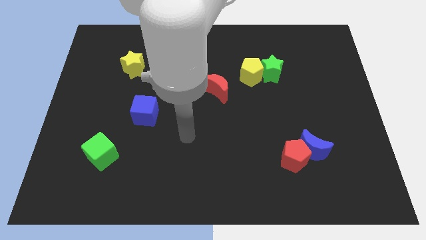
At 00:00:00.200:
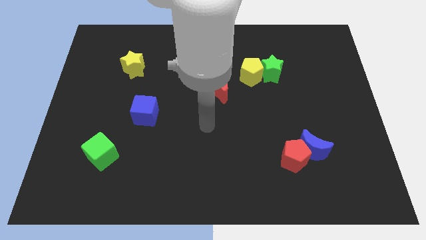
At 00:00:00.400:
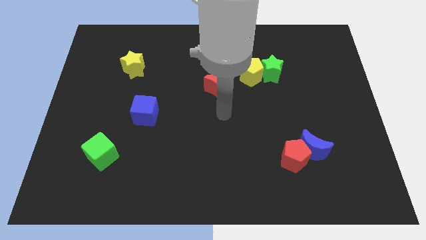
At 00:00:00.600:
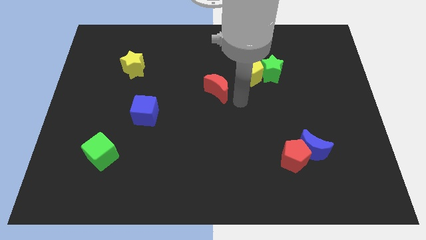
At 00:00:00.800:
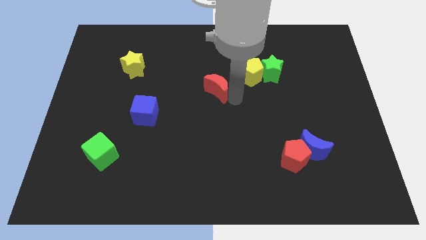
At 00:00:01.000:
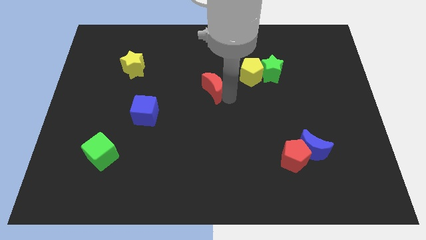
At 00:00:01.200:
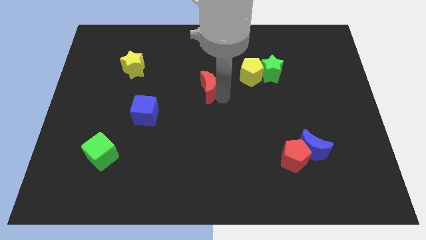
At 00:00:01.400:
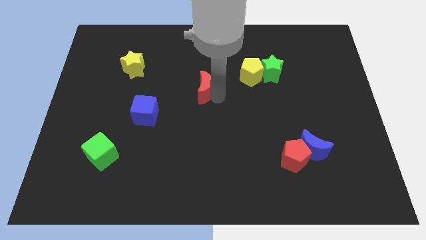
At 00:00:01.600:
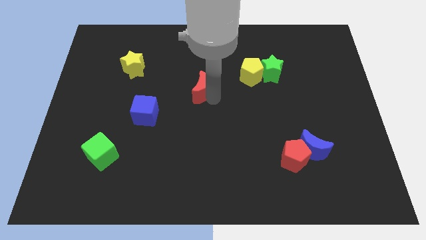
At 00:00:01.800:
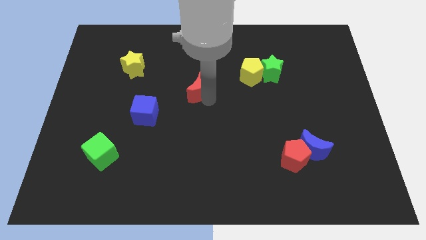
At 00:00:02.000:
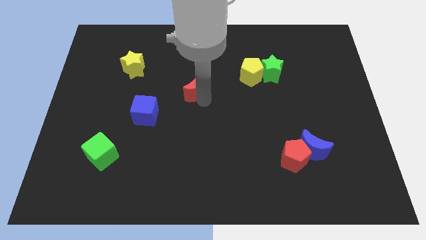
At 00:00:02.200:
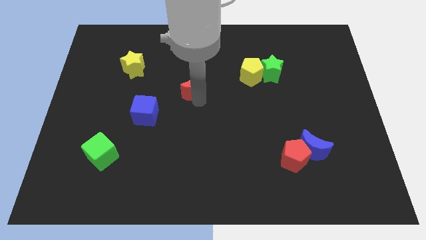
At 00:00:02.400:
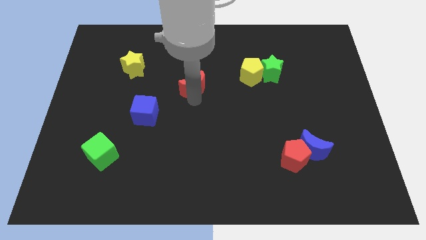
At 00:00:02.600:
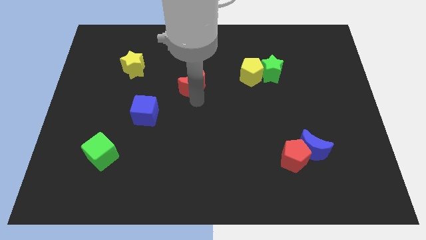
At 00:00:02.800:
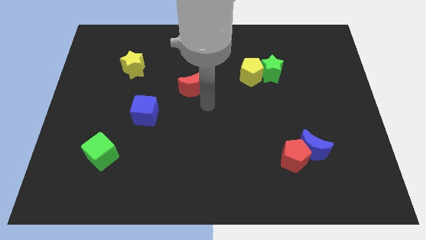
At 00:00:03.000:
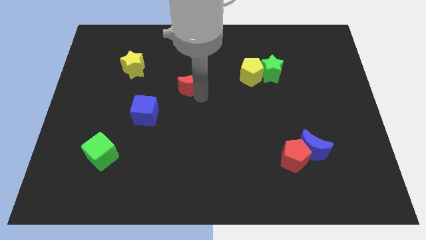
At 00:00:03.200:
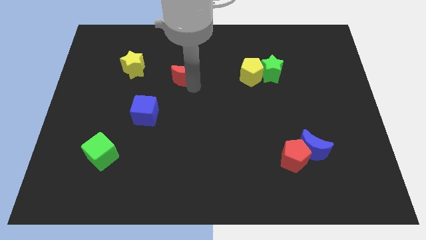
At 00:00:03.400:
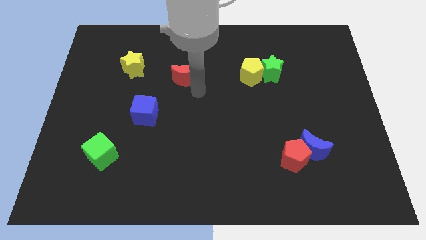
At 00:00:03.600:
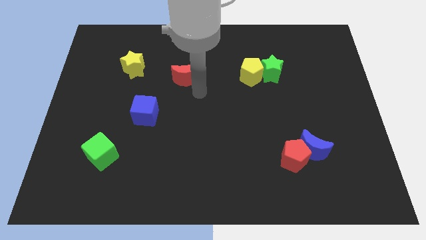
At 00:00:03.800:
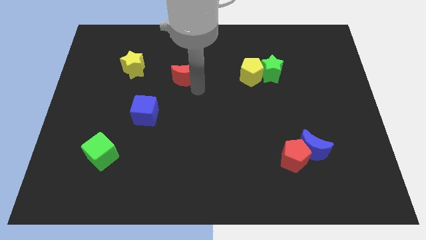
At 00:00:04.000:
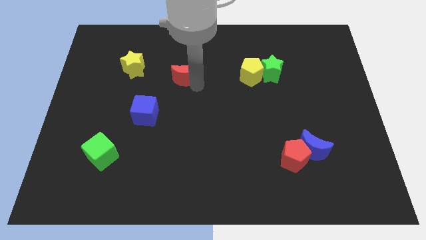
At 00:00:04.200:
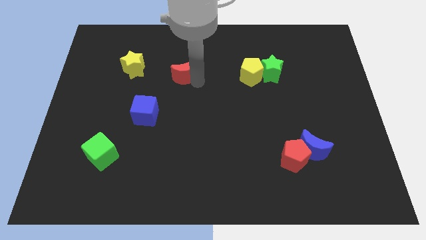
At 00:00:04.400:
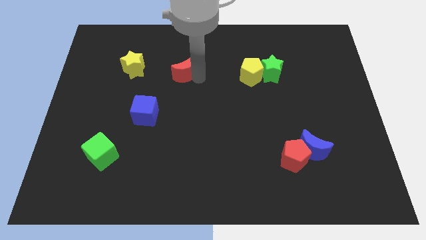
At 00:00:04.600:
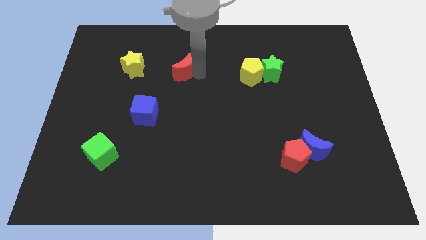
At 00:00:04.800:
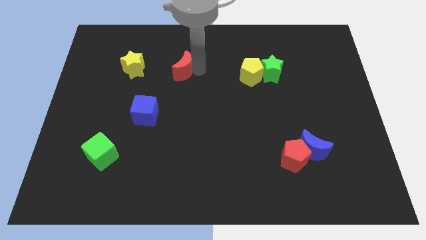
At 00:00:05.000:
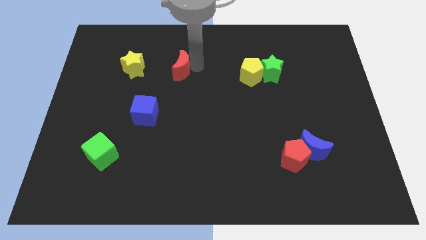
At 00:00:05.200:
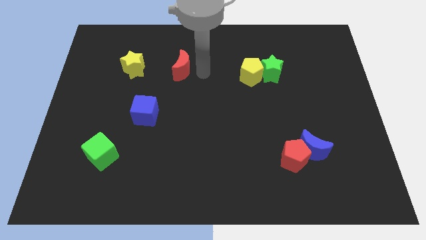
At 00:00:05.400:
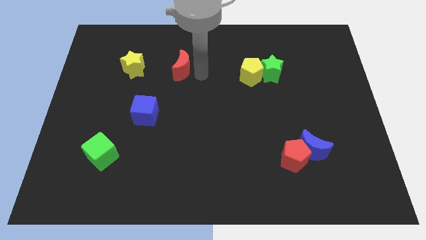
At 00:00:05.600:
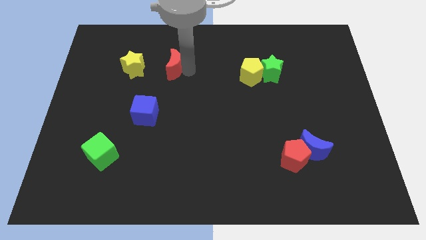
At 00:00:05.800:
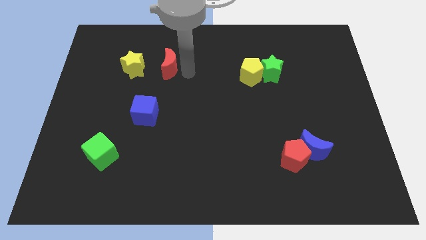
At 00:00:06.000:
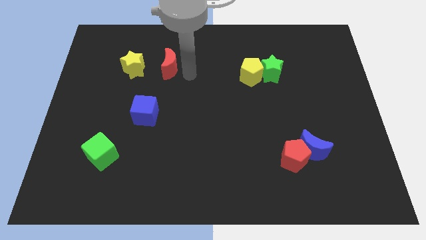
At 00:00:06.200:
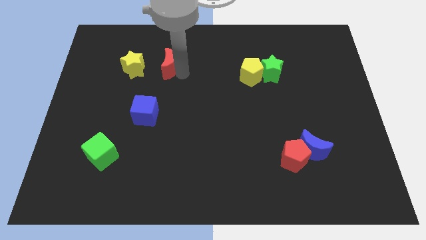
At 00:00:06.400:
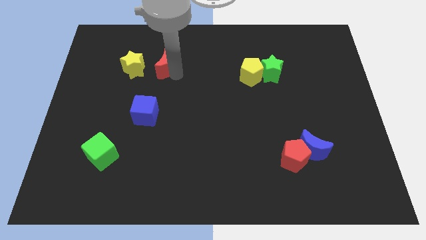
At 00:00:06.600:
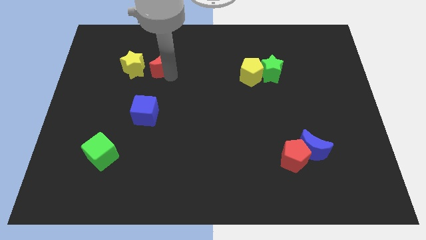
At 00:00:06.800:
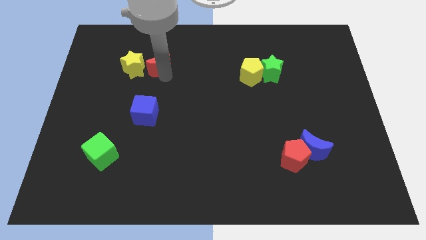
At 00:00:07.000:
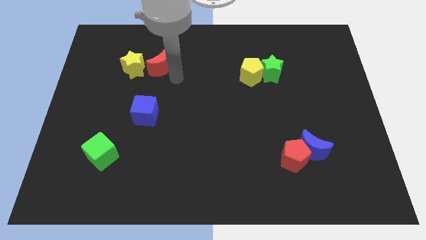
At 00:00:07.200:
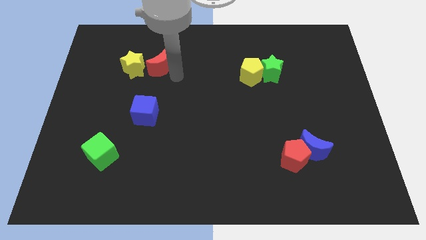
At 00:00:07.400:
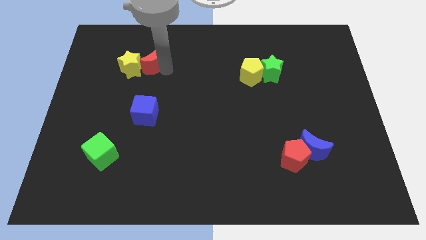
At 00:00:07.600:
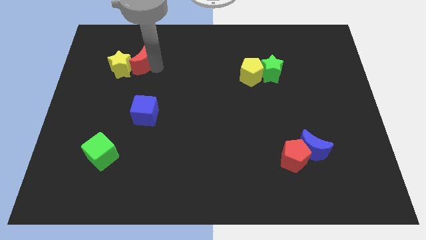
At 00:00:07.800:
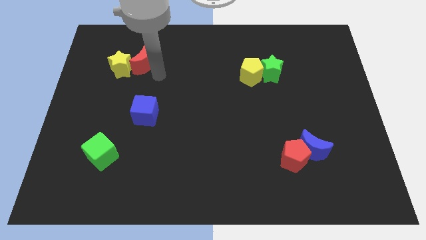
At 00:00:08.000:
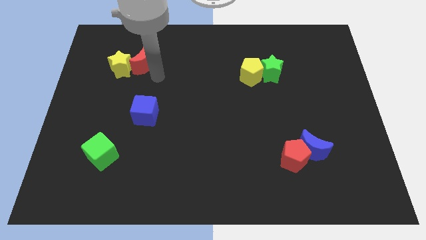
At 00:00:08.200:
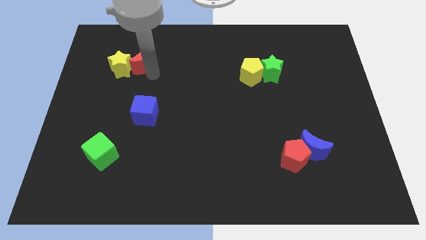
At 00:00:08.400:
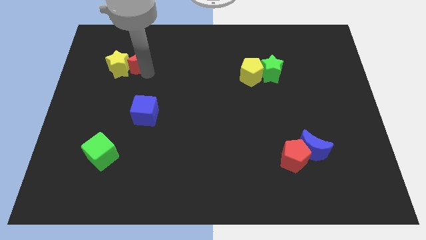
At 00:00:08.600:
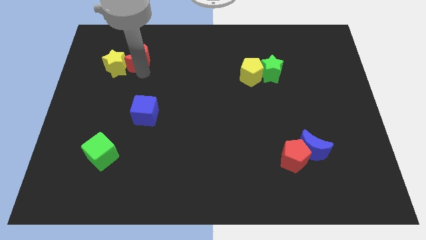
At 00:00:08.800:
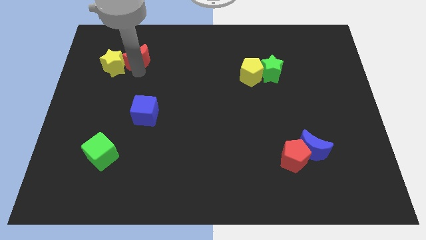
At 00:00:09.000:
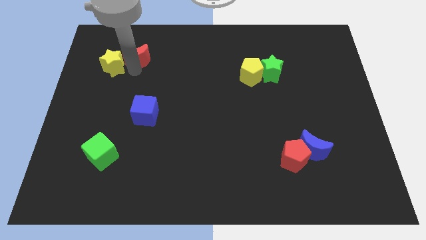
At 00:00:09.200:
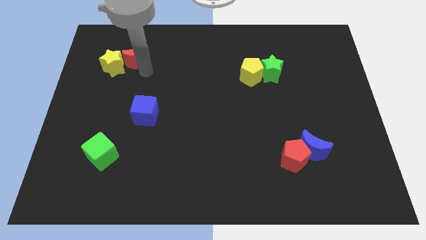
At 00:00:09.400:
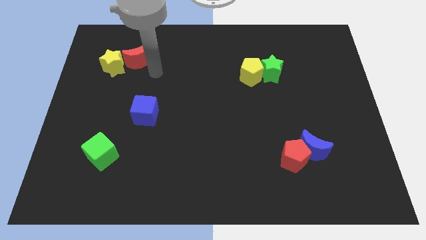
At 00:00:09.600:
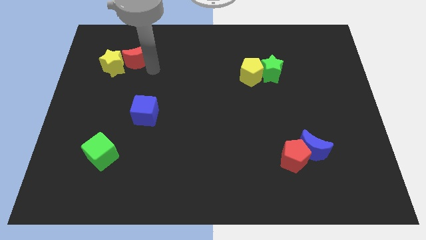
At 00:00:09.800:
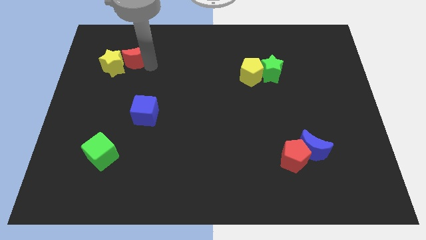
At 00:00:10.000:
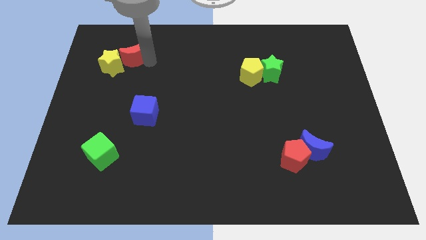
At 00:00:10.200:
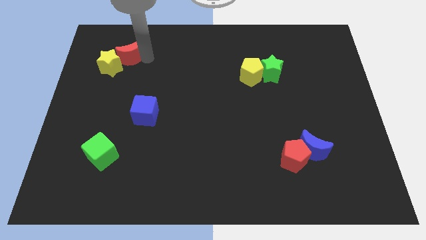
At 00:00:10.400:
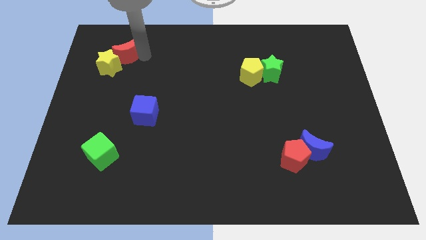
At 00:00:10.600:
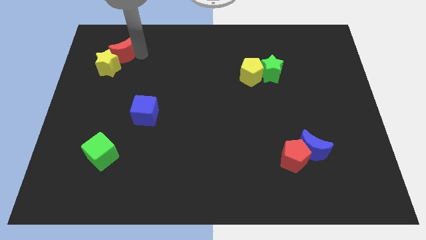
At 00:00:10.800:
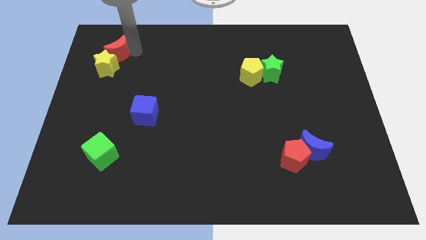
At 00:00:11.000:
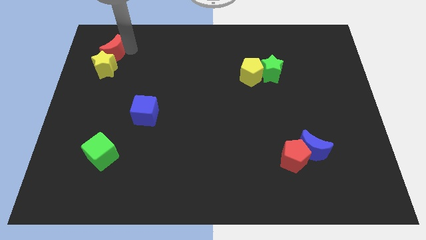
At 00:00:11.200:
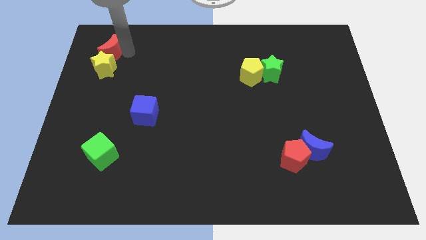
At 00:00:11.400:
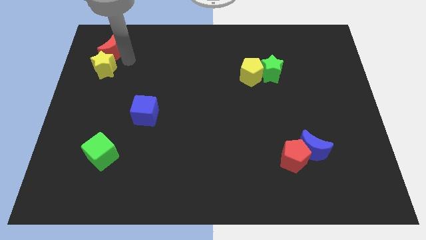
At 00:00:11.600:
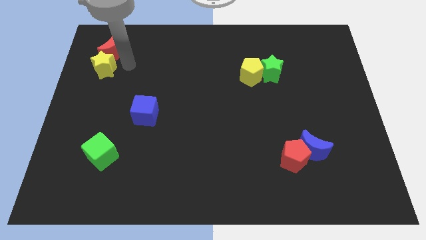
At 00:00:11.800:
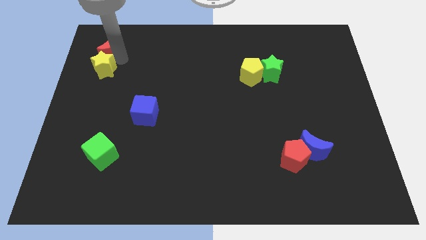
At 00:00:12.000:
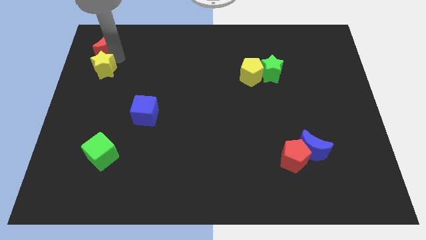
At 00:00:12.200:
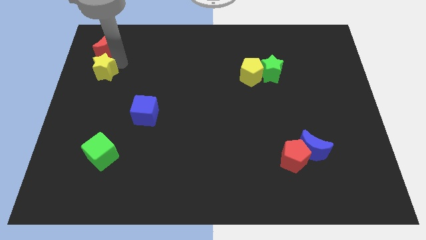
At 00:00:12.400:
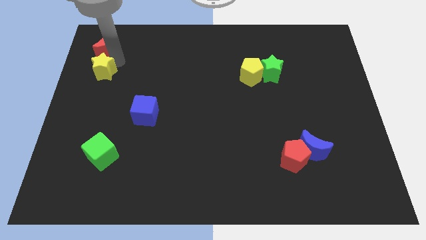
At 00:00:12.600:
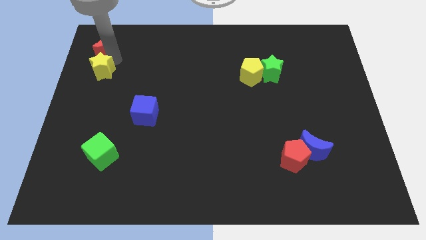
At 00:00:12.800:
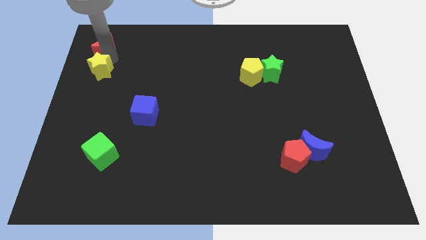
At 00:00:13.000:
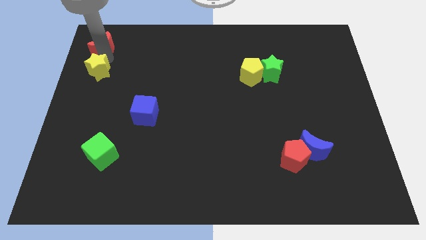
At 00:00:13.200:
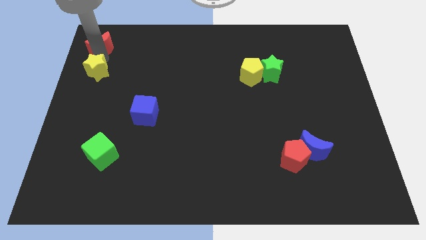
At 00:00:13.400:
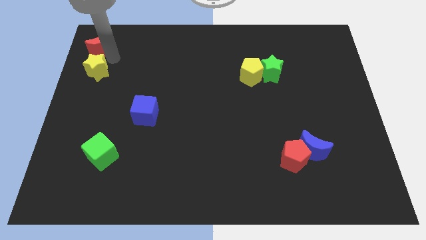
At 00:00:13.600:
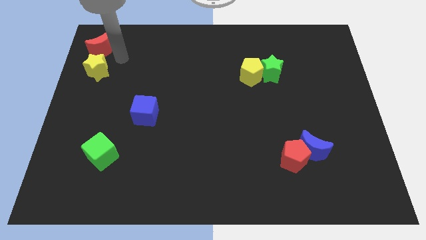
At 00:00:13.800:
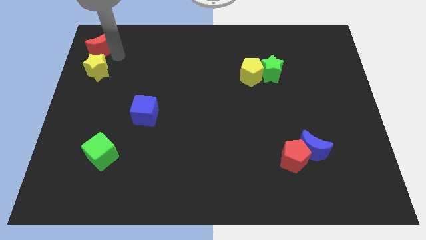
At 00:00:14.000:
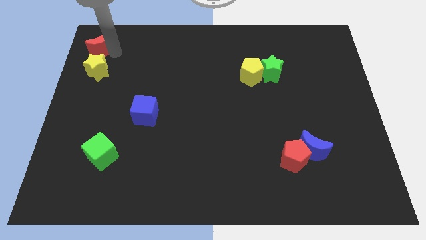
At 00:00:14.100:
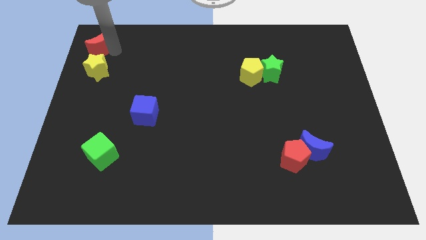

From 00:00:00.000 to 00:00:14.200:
put the red moon to the top left of the board
